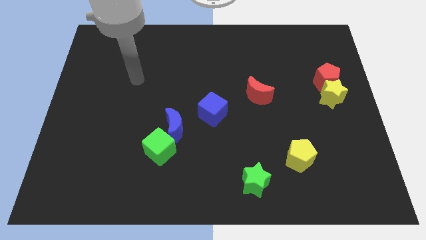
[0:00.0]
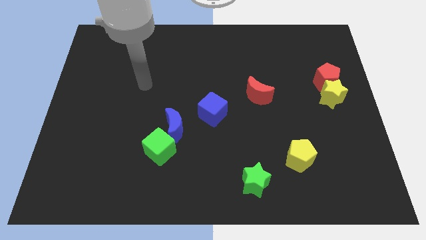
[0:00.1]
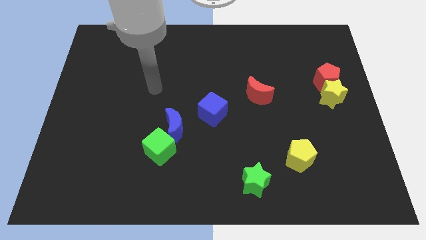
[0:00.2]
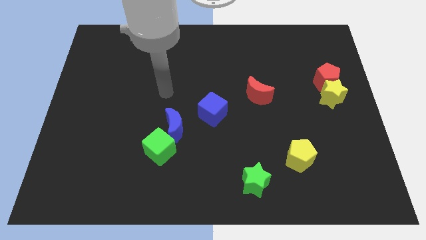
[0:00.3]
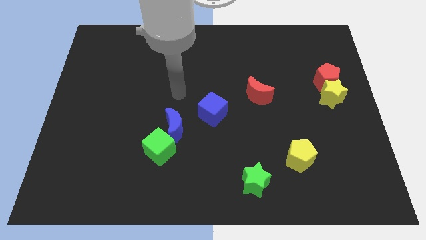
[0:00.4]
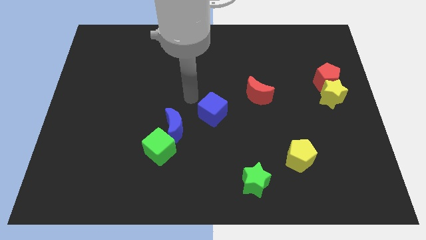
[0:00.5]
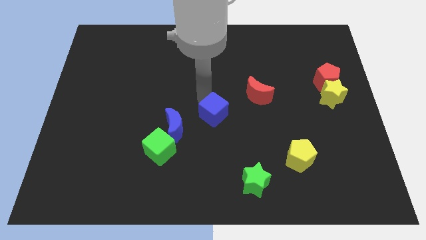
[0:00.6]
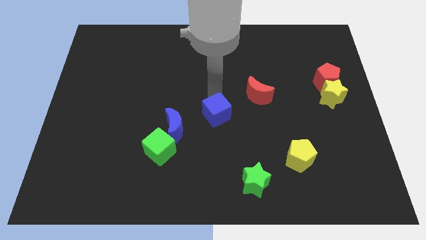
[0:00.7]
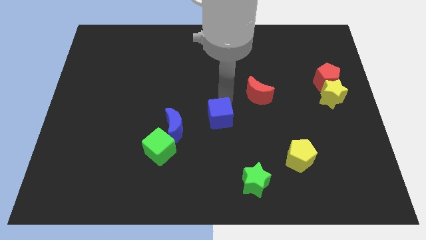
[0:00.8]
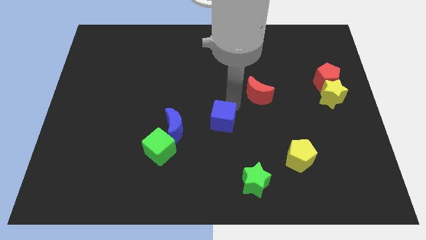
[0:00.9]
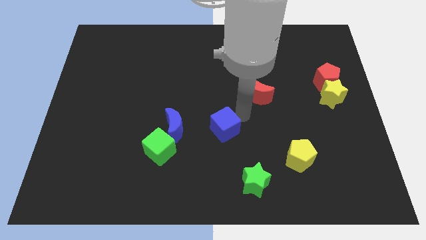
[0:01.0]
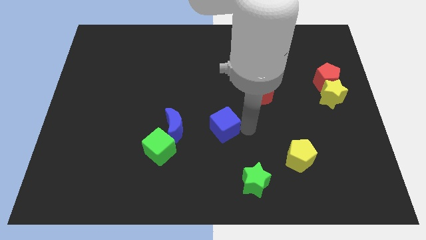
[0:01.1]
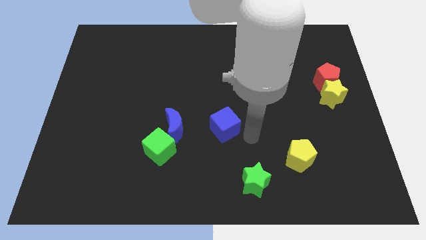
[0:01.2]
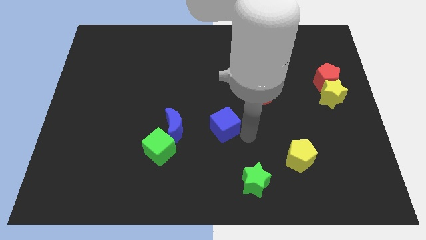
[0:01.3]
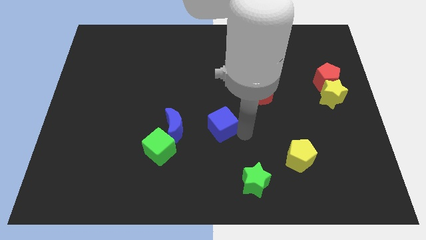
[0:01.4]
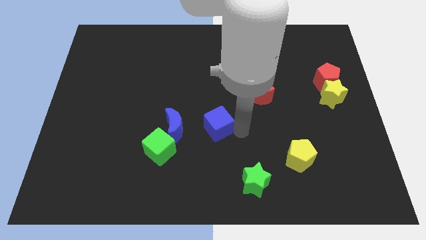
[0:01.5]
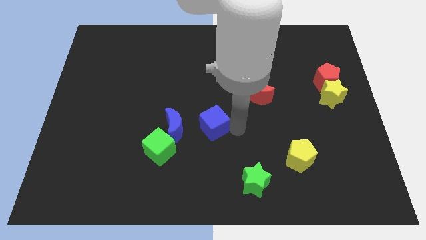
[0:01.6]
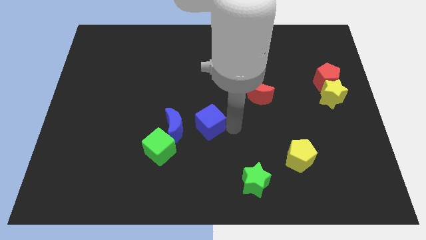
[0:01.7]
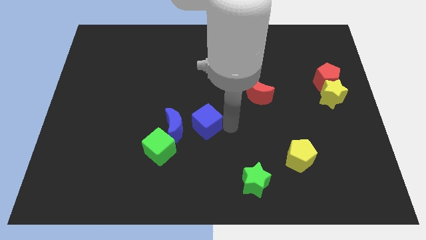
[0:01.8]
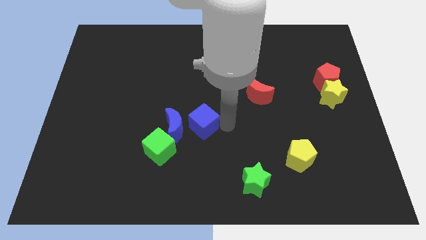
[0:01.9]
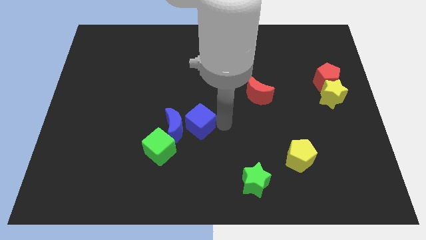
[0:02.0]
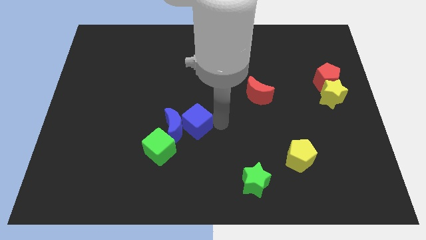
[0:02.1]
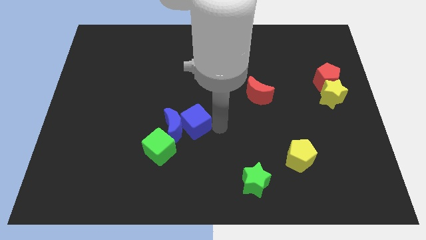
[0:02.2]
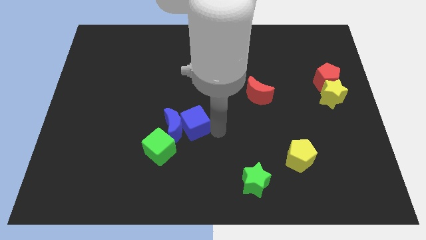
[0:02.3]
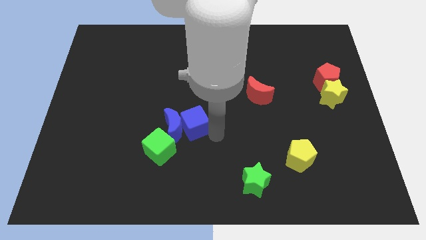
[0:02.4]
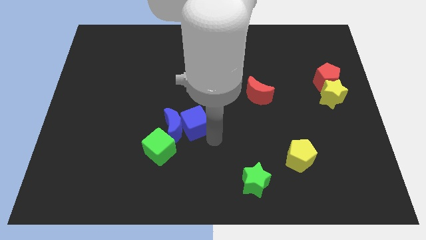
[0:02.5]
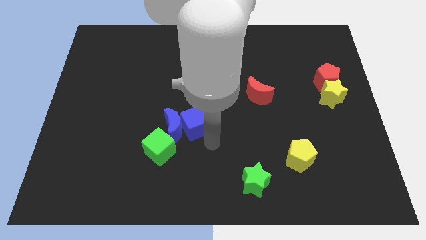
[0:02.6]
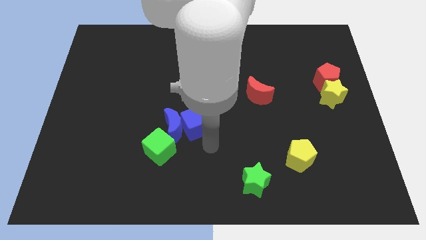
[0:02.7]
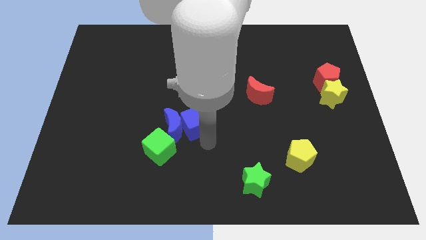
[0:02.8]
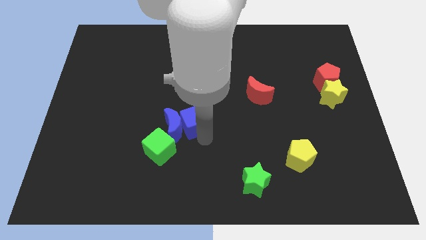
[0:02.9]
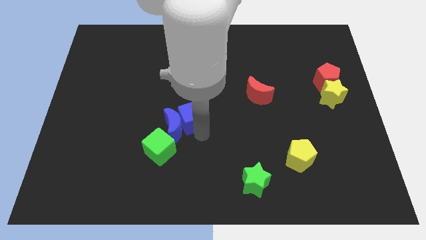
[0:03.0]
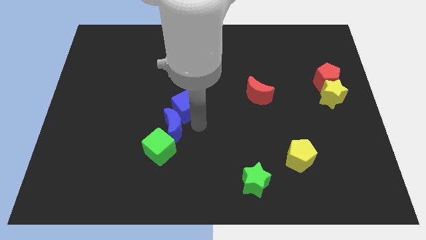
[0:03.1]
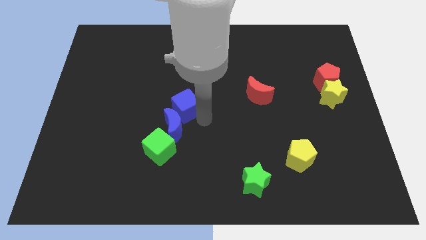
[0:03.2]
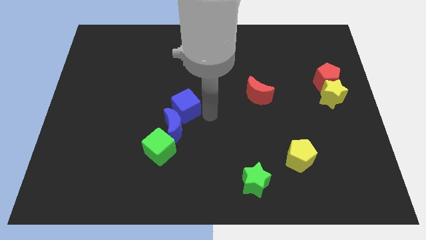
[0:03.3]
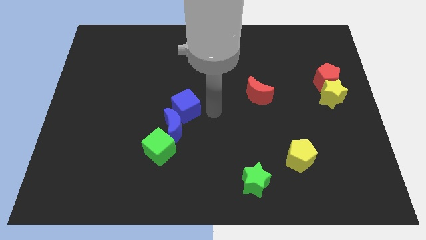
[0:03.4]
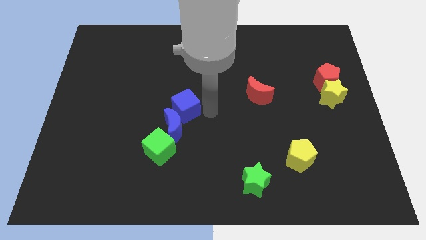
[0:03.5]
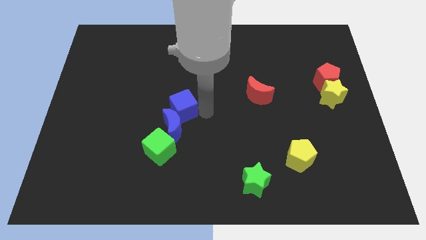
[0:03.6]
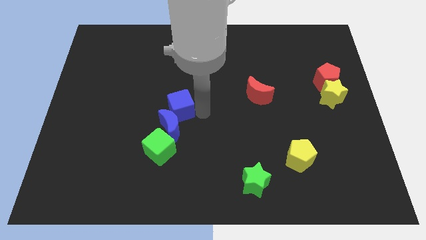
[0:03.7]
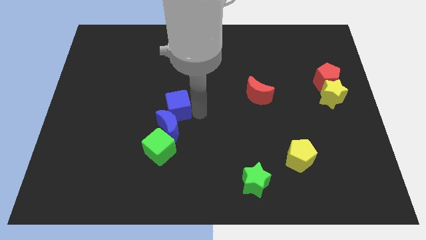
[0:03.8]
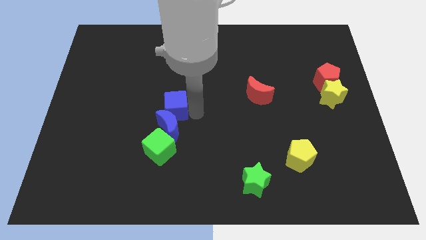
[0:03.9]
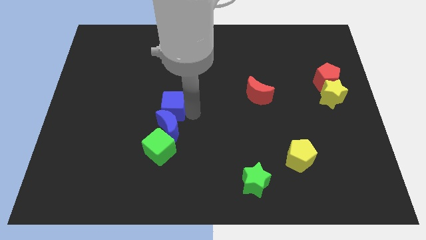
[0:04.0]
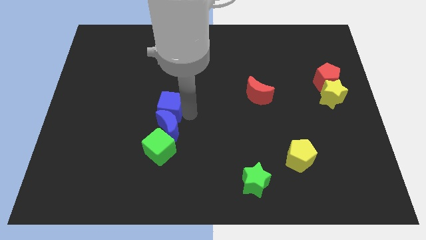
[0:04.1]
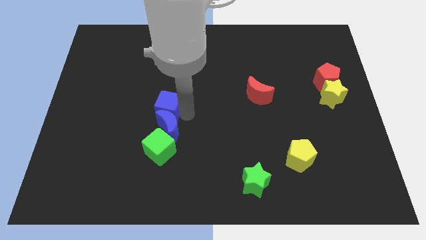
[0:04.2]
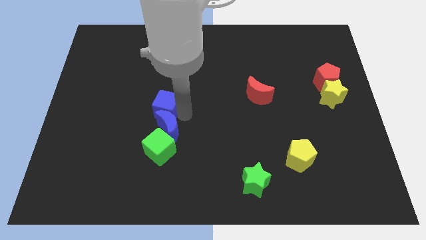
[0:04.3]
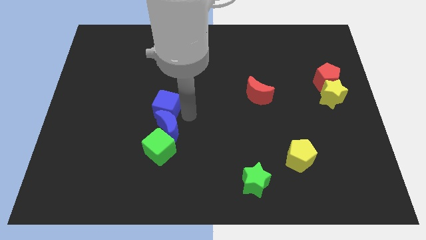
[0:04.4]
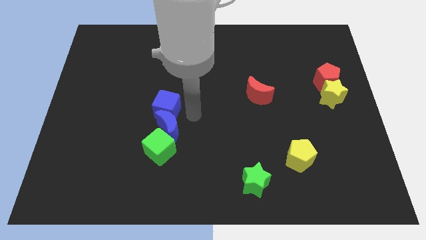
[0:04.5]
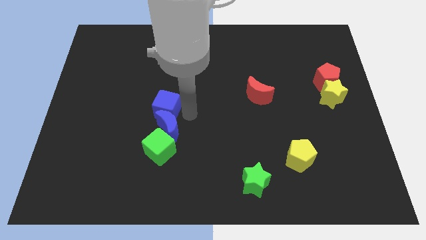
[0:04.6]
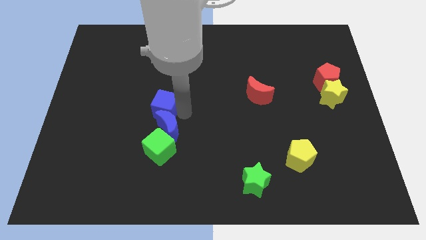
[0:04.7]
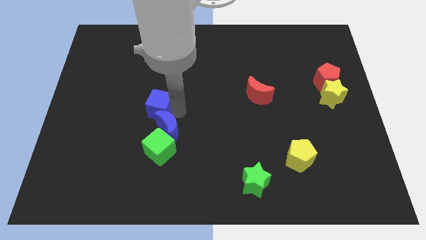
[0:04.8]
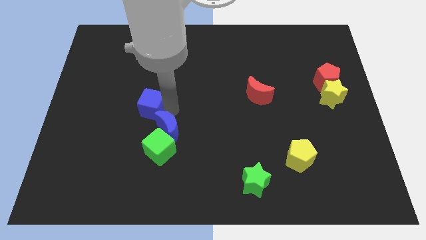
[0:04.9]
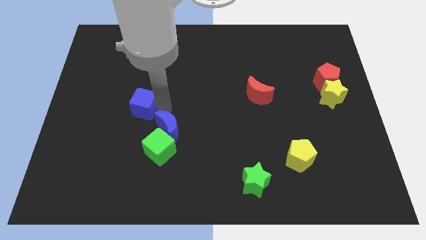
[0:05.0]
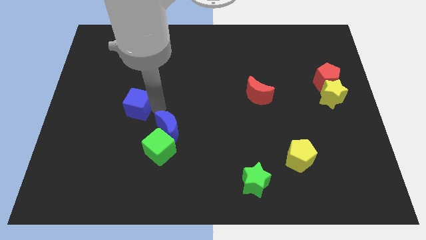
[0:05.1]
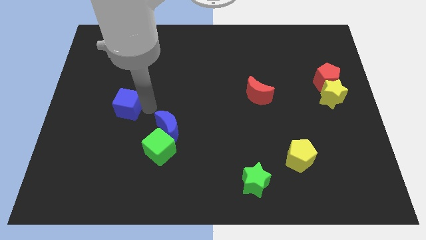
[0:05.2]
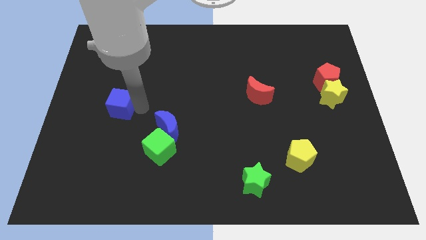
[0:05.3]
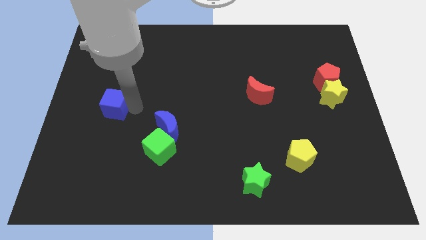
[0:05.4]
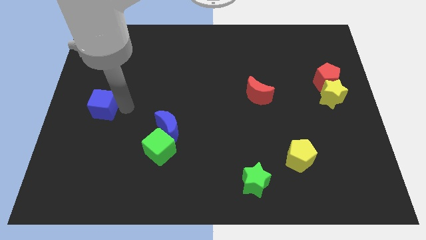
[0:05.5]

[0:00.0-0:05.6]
push the blue cube to the center left

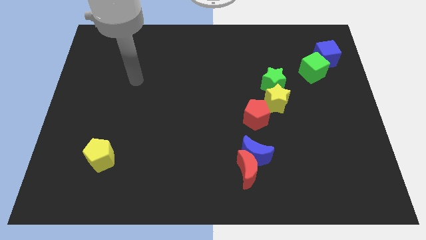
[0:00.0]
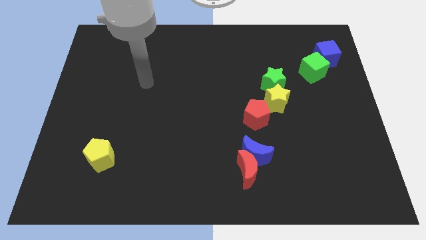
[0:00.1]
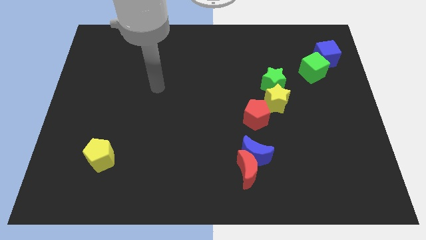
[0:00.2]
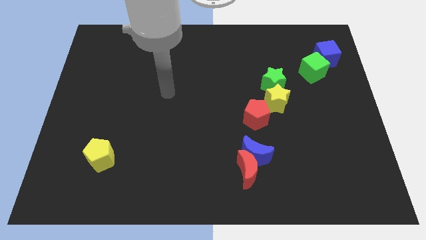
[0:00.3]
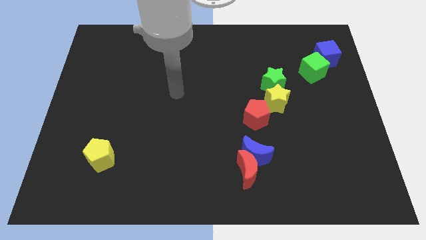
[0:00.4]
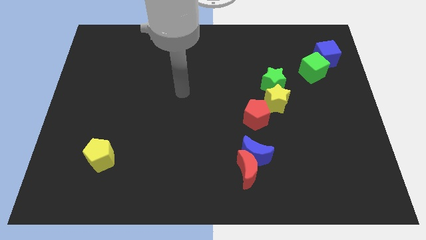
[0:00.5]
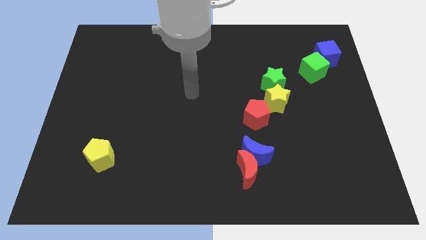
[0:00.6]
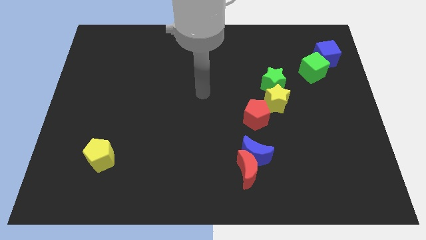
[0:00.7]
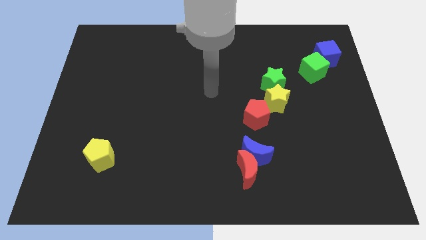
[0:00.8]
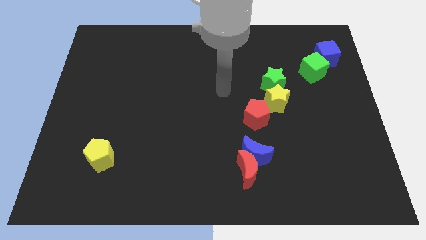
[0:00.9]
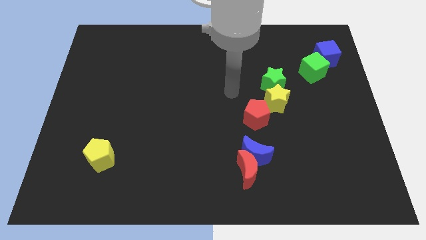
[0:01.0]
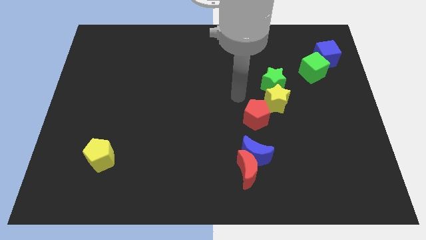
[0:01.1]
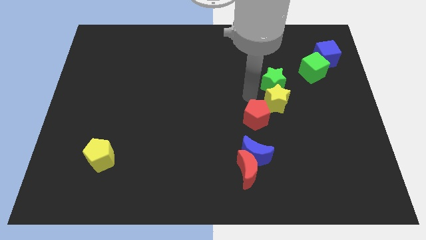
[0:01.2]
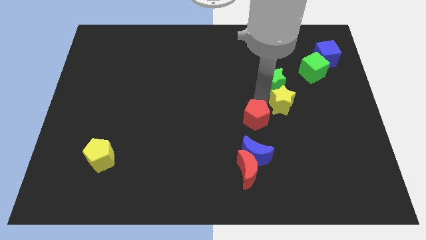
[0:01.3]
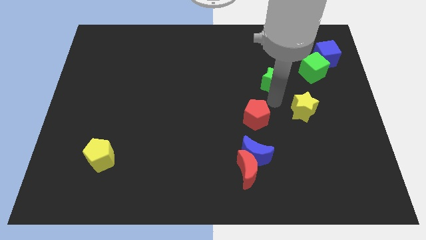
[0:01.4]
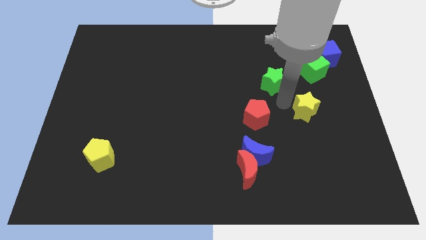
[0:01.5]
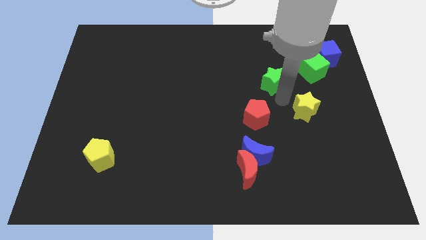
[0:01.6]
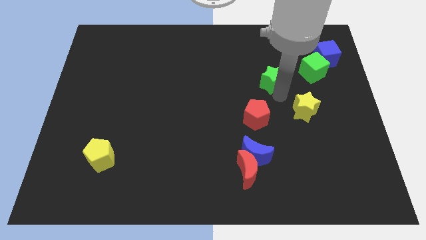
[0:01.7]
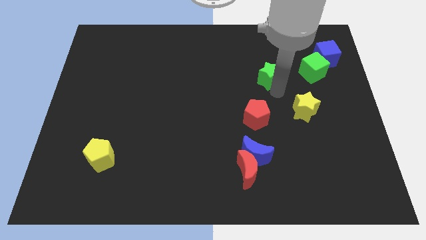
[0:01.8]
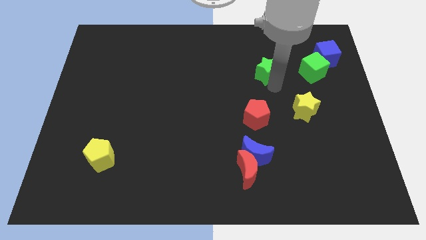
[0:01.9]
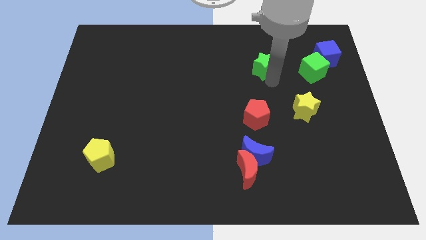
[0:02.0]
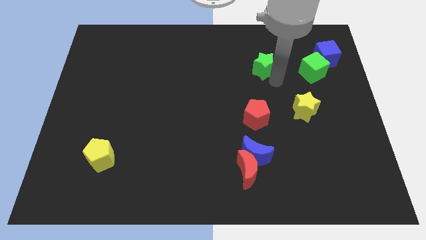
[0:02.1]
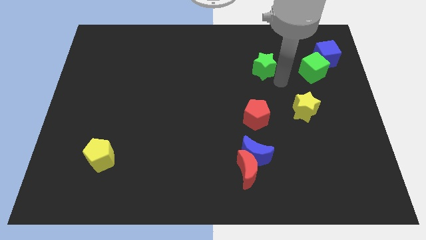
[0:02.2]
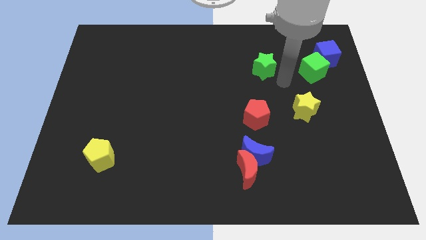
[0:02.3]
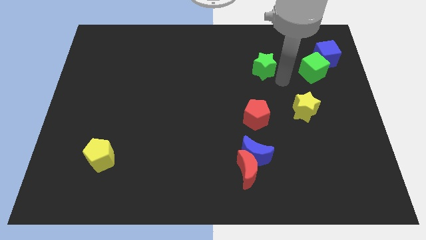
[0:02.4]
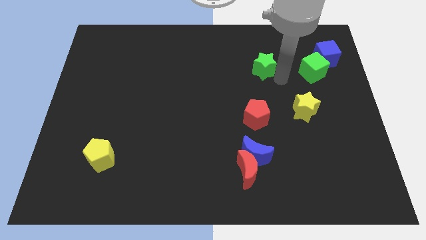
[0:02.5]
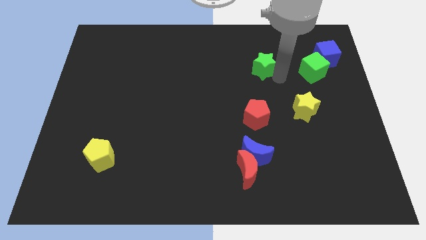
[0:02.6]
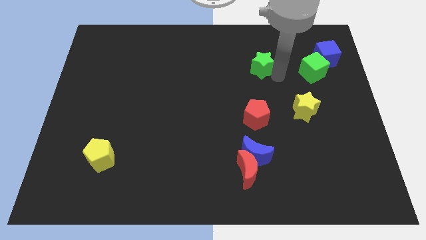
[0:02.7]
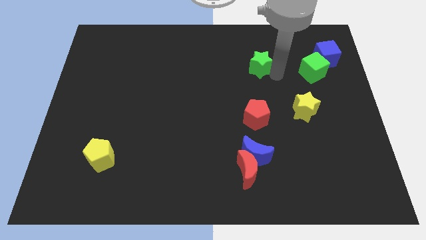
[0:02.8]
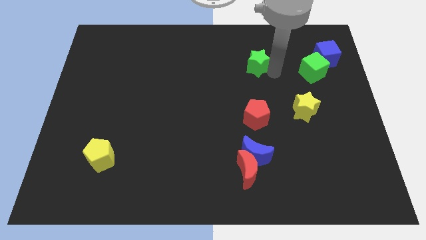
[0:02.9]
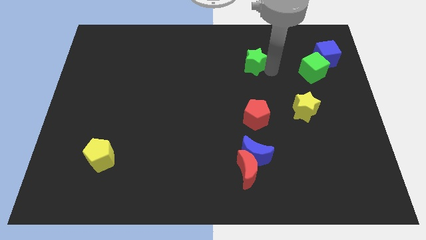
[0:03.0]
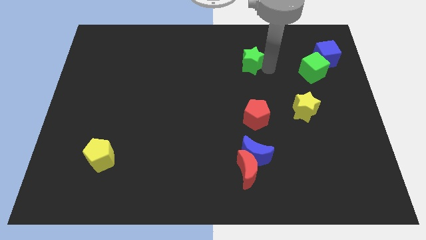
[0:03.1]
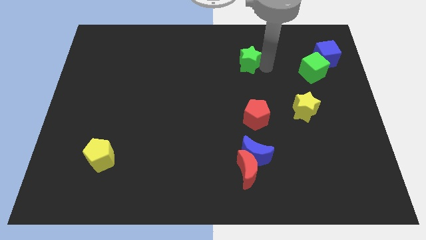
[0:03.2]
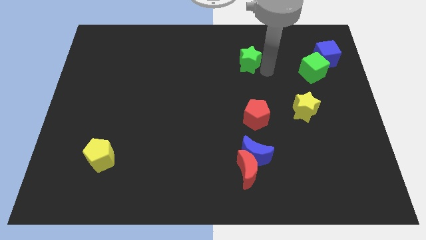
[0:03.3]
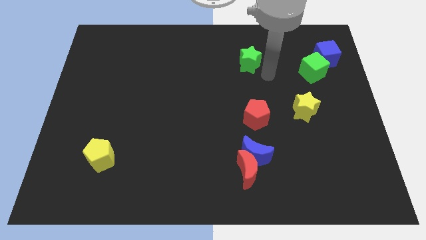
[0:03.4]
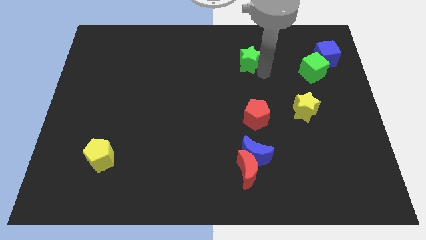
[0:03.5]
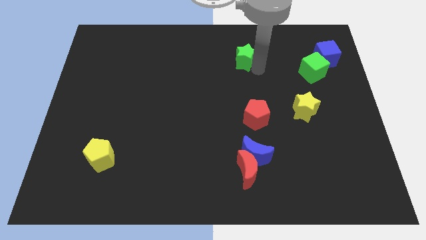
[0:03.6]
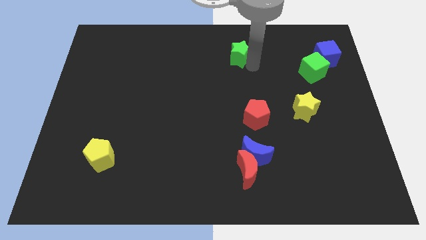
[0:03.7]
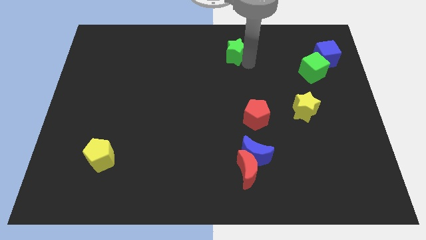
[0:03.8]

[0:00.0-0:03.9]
push the green star to the top side
